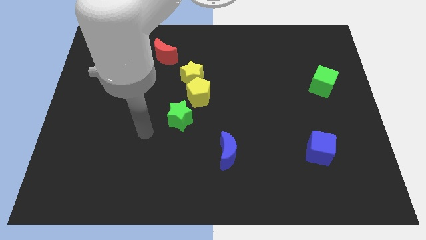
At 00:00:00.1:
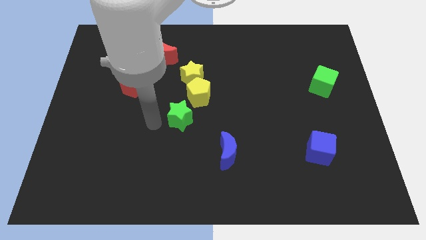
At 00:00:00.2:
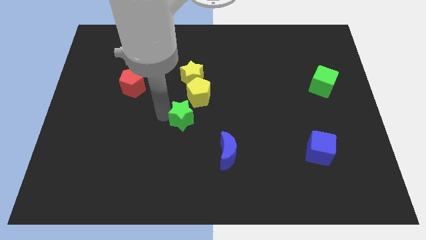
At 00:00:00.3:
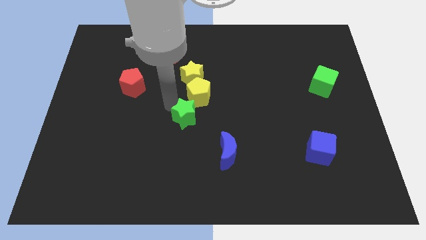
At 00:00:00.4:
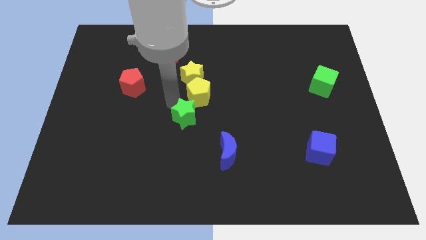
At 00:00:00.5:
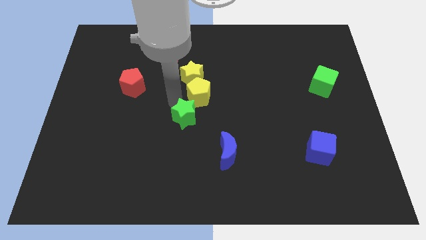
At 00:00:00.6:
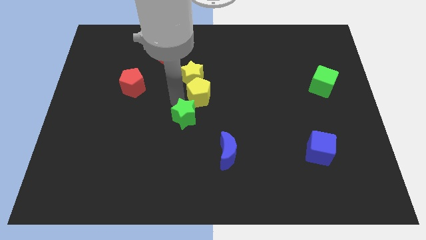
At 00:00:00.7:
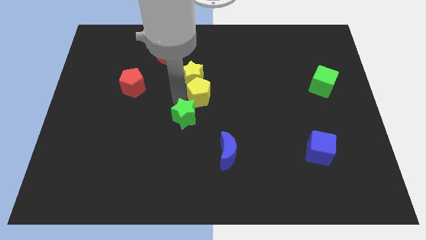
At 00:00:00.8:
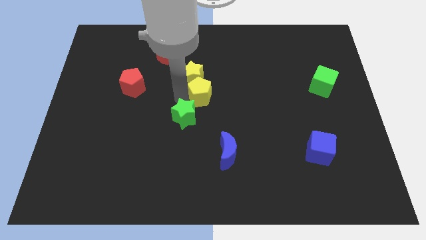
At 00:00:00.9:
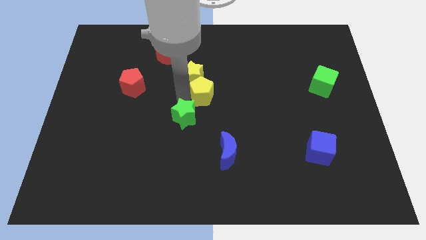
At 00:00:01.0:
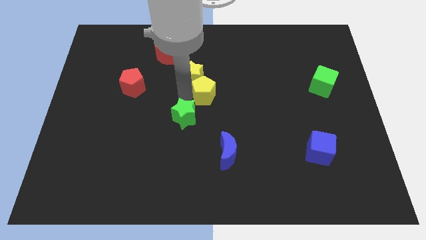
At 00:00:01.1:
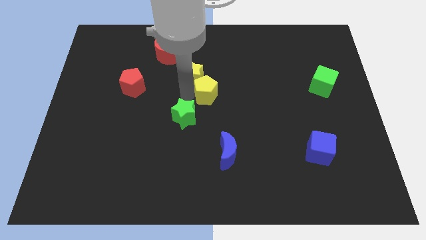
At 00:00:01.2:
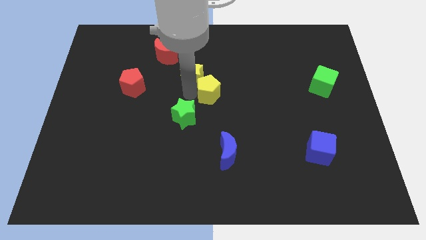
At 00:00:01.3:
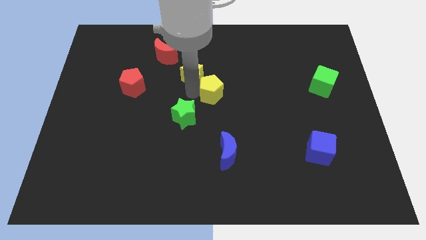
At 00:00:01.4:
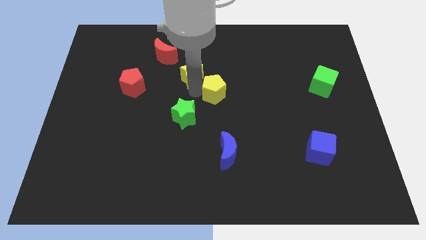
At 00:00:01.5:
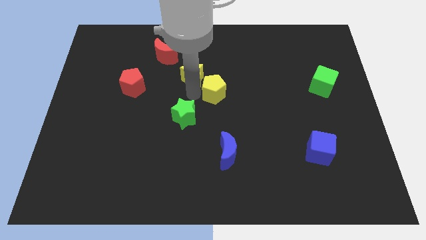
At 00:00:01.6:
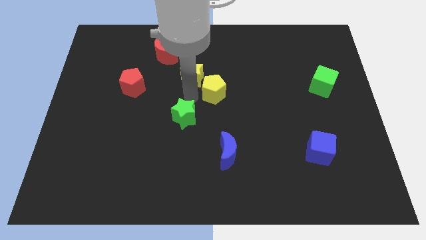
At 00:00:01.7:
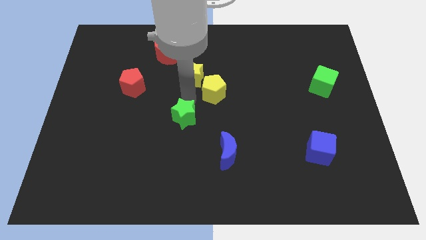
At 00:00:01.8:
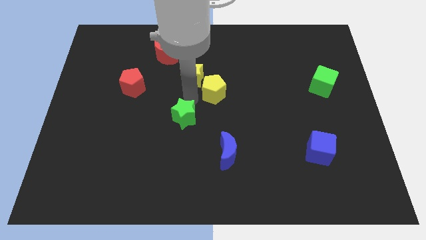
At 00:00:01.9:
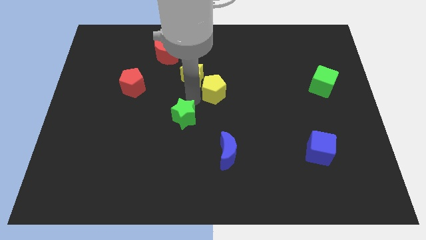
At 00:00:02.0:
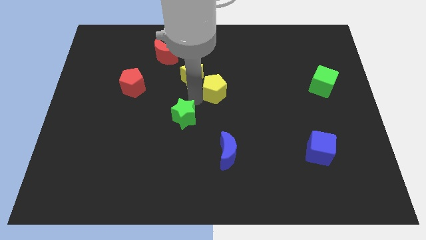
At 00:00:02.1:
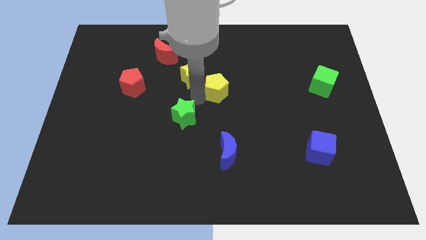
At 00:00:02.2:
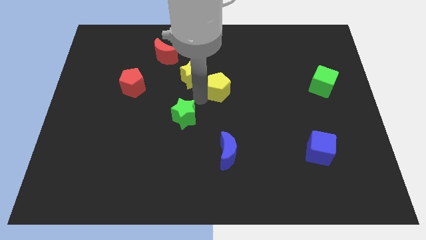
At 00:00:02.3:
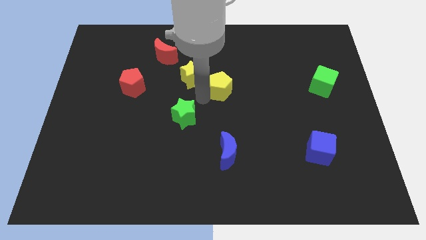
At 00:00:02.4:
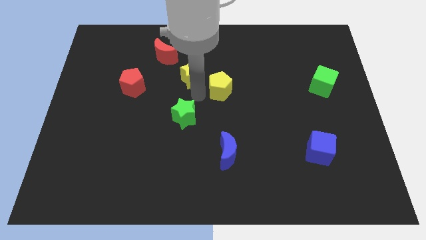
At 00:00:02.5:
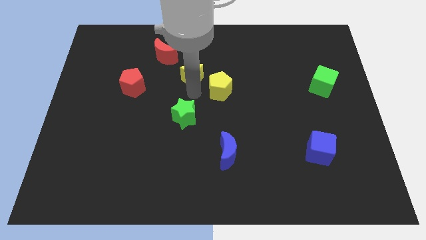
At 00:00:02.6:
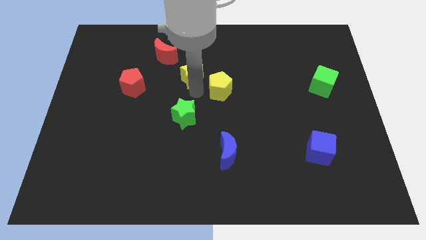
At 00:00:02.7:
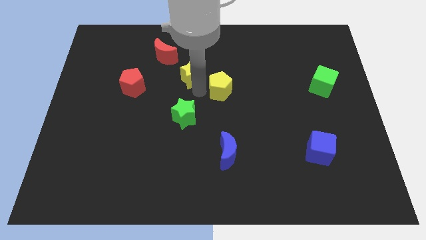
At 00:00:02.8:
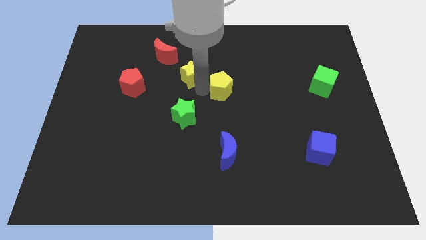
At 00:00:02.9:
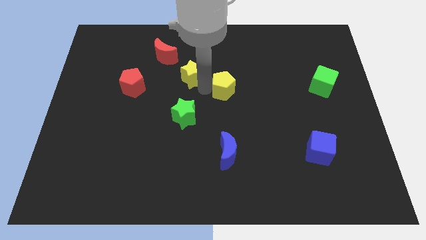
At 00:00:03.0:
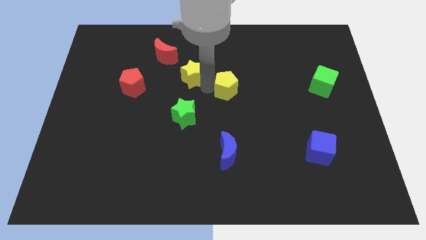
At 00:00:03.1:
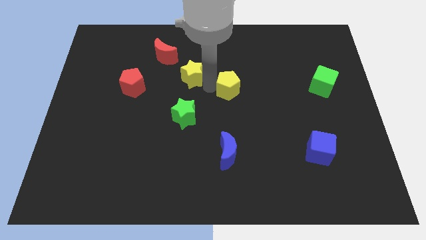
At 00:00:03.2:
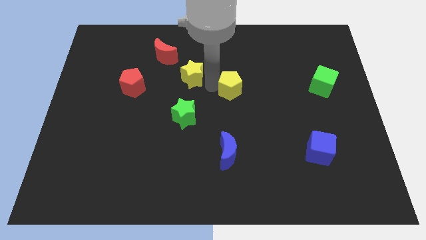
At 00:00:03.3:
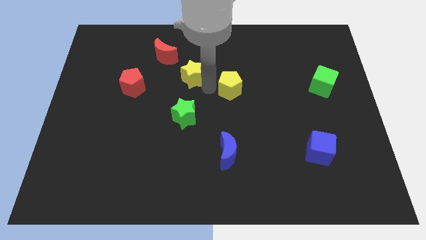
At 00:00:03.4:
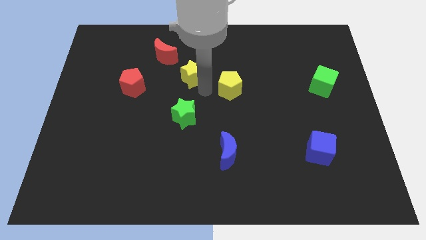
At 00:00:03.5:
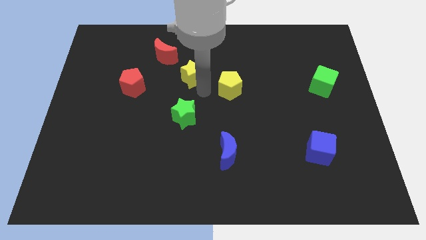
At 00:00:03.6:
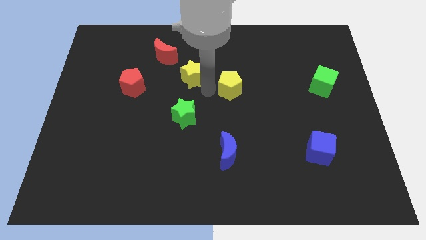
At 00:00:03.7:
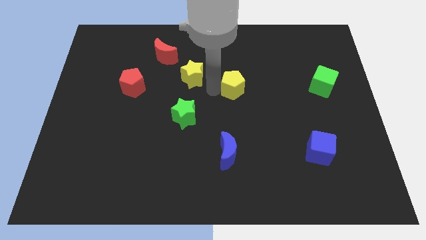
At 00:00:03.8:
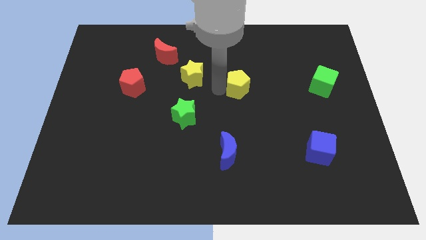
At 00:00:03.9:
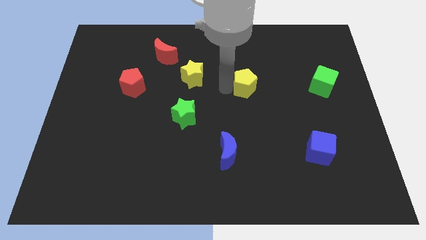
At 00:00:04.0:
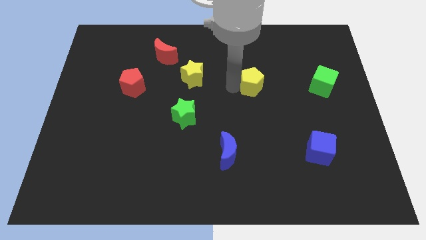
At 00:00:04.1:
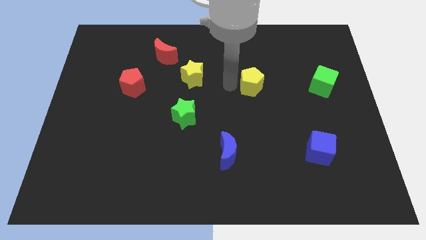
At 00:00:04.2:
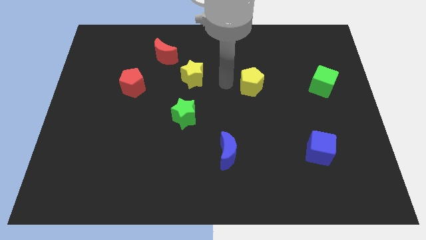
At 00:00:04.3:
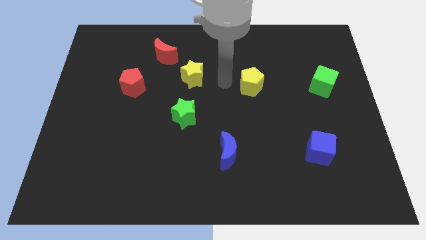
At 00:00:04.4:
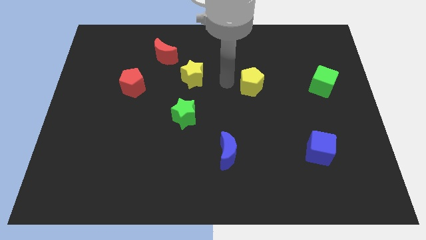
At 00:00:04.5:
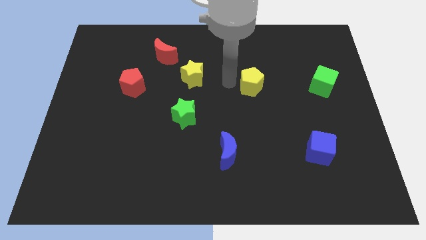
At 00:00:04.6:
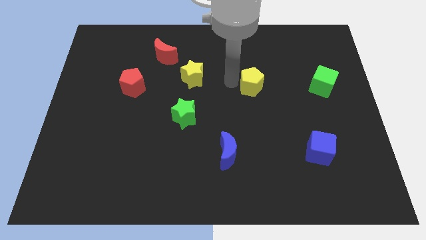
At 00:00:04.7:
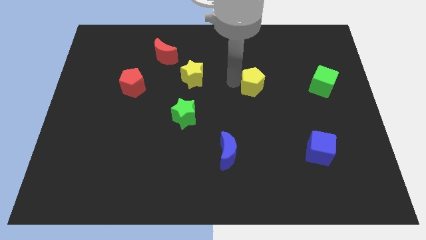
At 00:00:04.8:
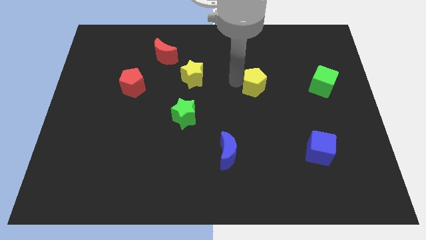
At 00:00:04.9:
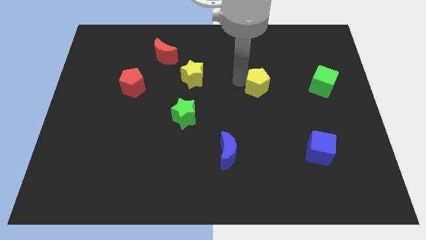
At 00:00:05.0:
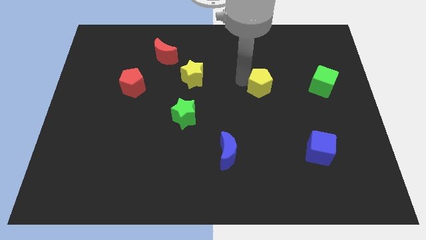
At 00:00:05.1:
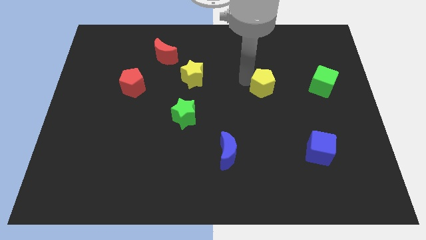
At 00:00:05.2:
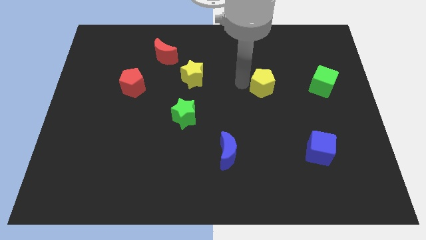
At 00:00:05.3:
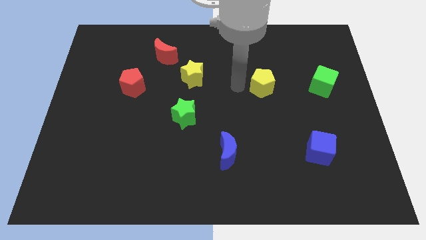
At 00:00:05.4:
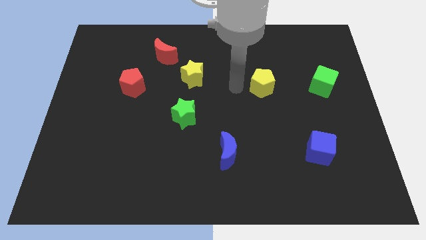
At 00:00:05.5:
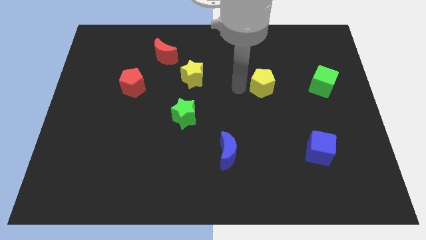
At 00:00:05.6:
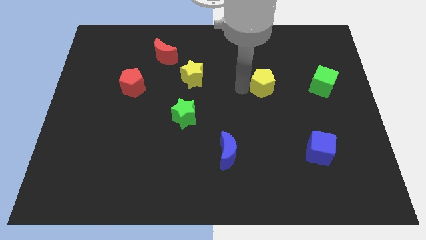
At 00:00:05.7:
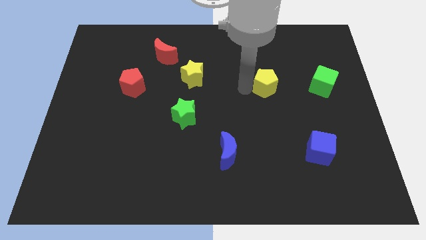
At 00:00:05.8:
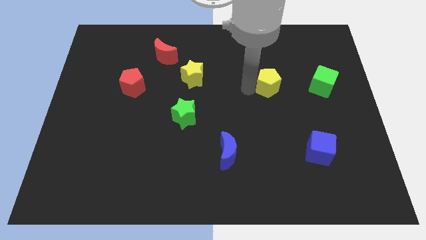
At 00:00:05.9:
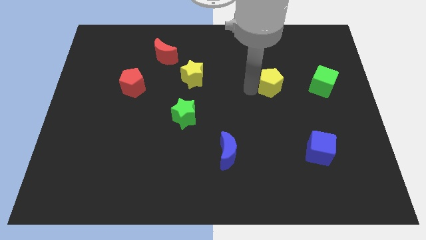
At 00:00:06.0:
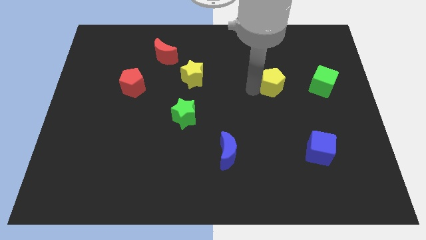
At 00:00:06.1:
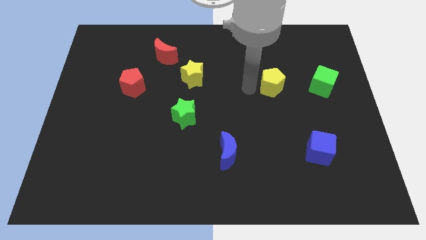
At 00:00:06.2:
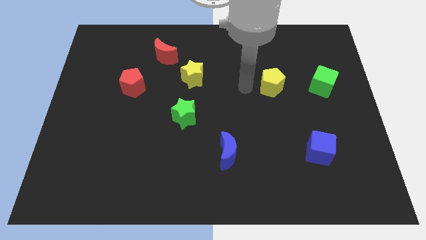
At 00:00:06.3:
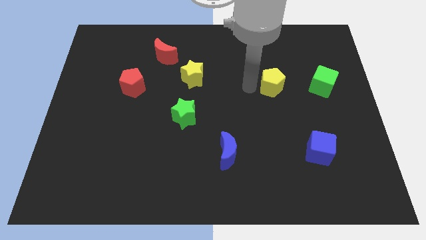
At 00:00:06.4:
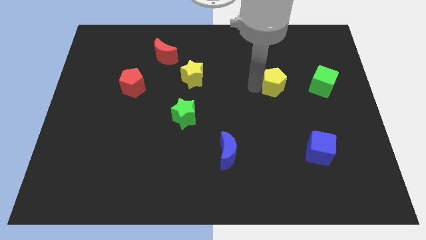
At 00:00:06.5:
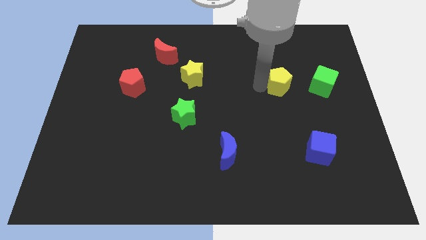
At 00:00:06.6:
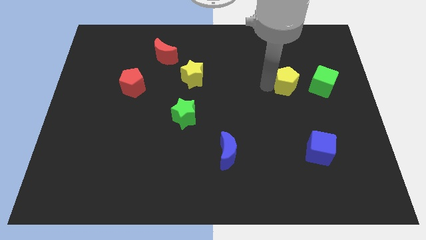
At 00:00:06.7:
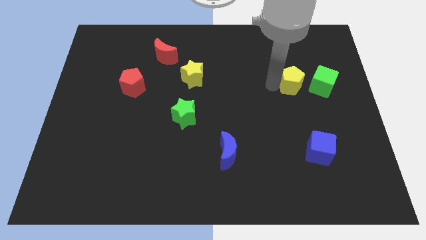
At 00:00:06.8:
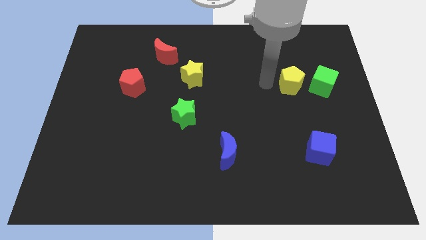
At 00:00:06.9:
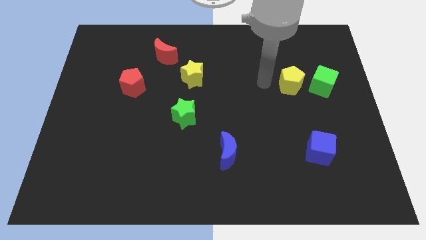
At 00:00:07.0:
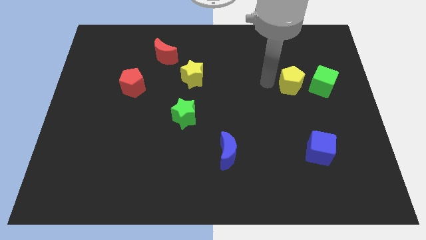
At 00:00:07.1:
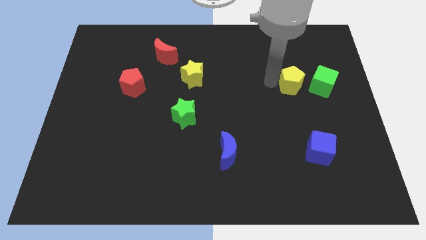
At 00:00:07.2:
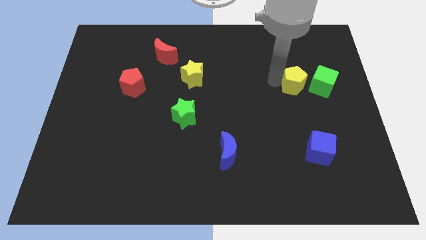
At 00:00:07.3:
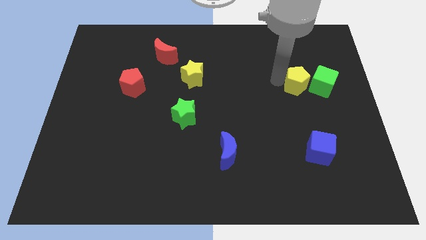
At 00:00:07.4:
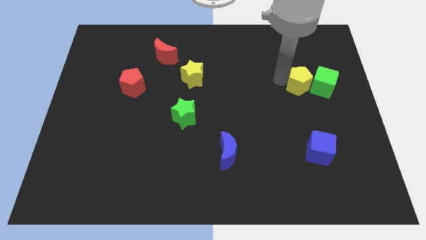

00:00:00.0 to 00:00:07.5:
move the yellow pentagon to the green cube
